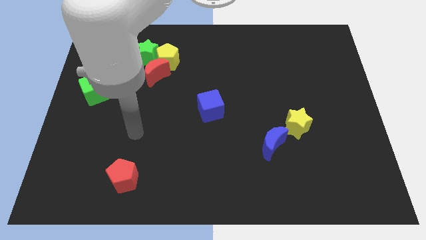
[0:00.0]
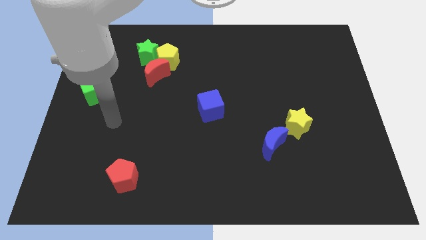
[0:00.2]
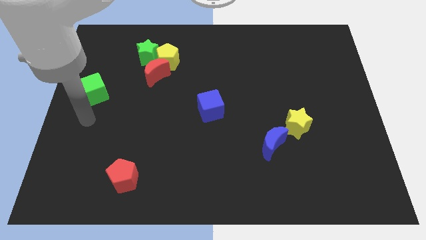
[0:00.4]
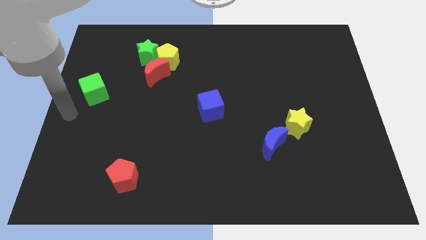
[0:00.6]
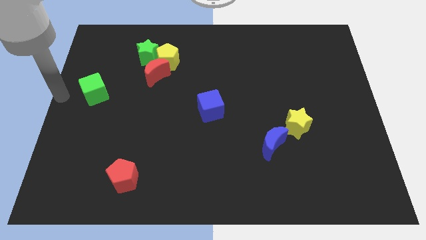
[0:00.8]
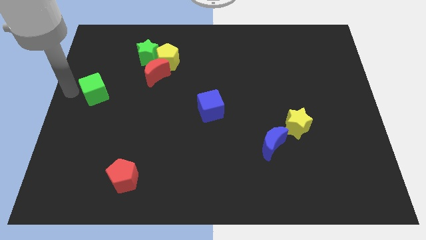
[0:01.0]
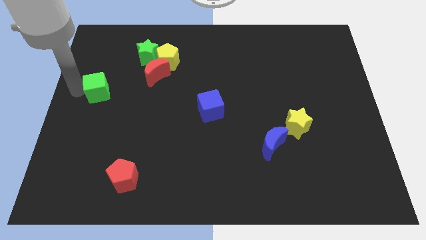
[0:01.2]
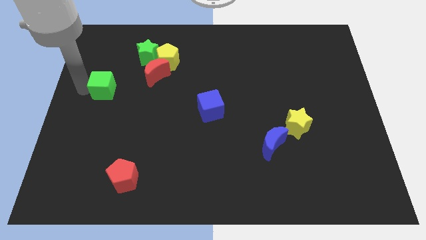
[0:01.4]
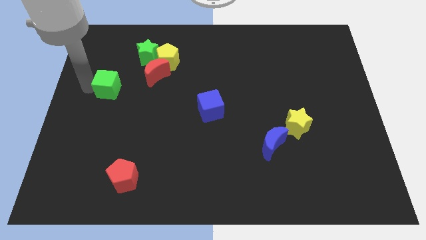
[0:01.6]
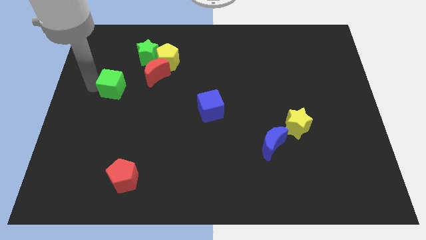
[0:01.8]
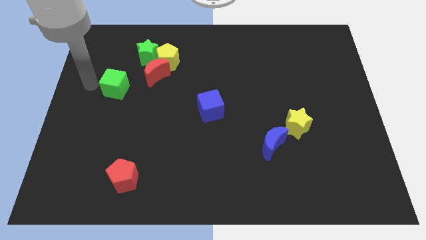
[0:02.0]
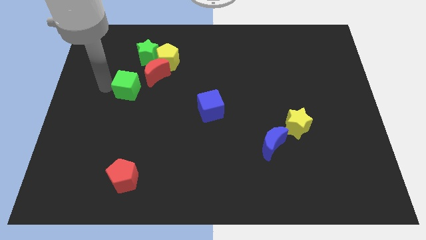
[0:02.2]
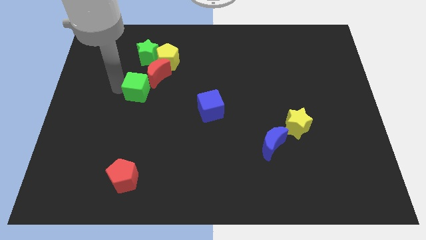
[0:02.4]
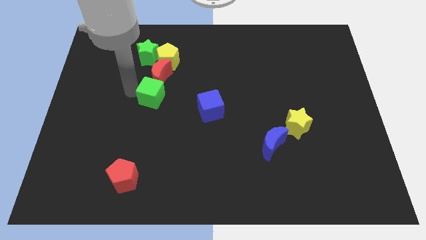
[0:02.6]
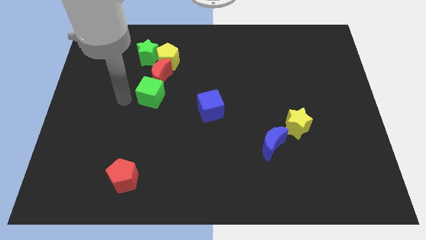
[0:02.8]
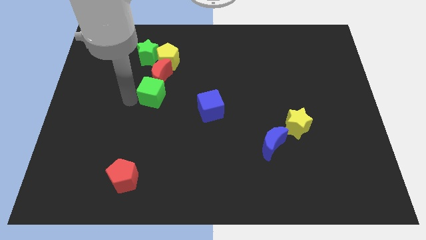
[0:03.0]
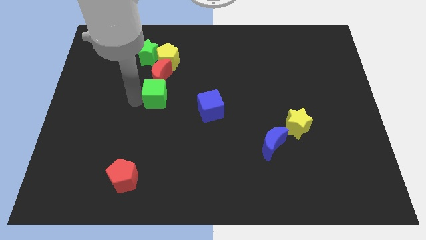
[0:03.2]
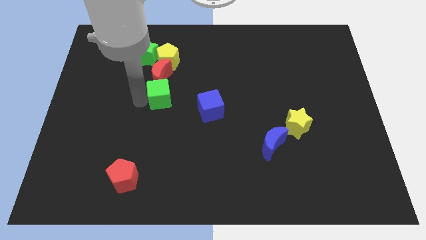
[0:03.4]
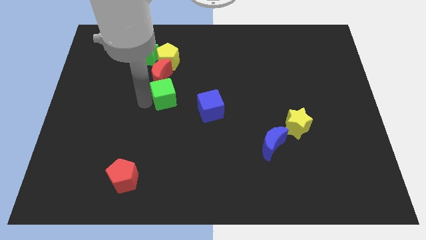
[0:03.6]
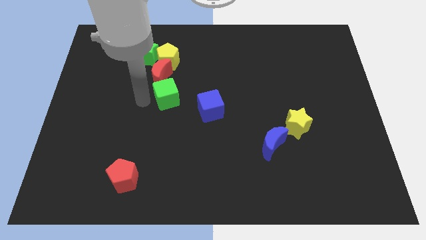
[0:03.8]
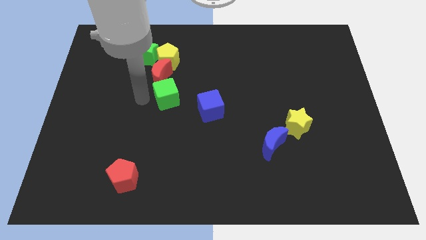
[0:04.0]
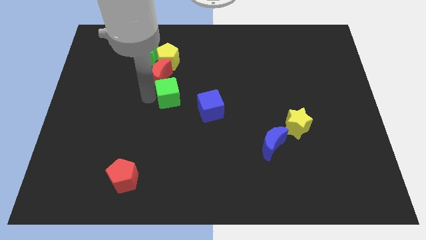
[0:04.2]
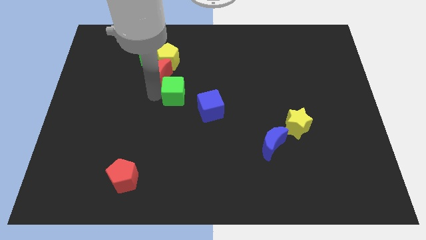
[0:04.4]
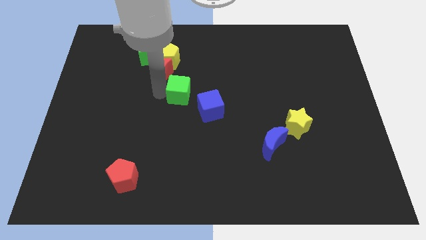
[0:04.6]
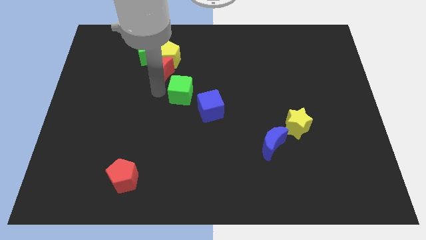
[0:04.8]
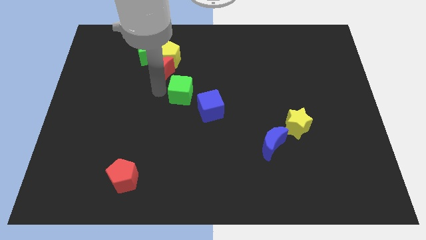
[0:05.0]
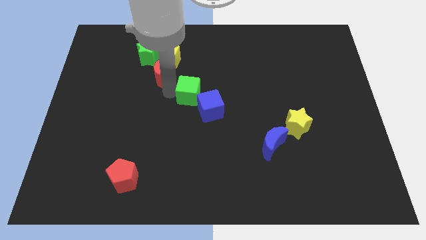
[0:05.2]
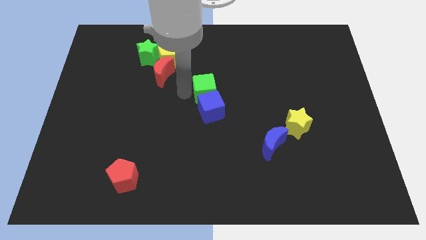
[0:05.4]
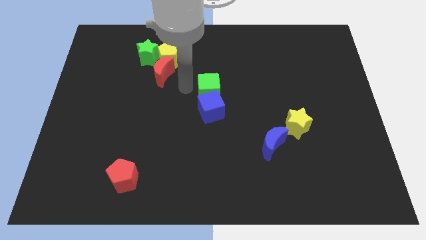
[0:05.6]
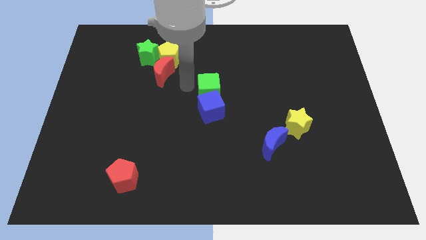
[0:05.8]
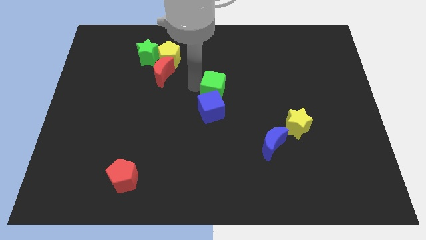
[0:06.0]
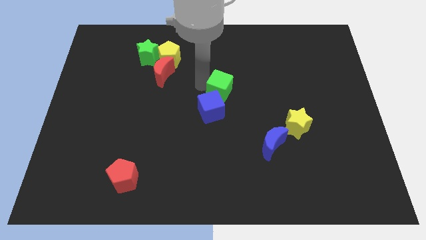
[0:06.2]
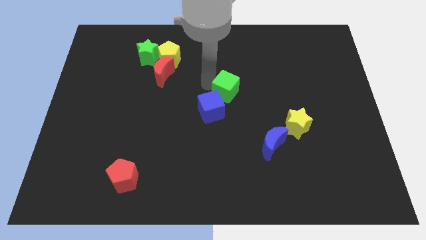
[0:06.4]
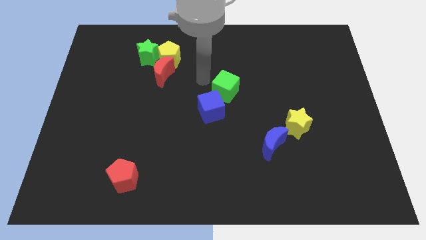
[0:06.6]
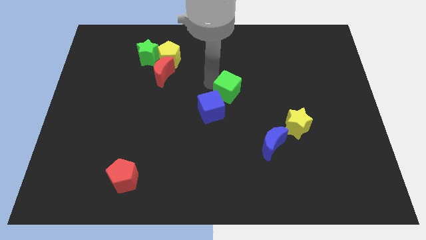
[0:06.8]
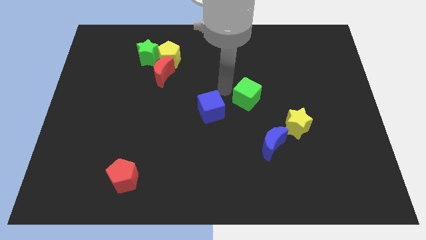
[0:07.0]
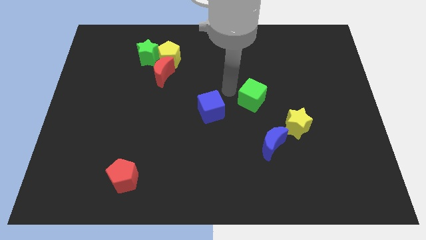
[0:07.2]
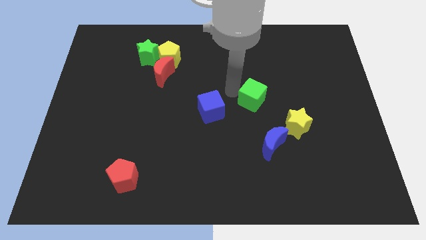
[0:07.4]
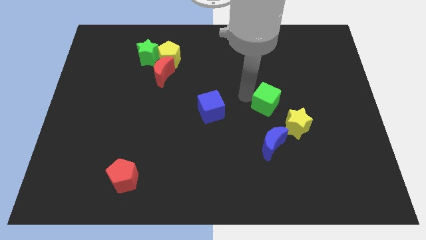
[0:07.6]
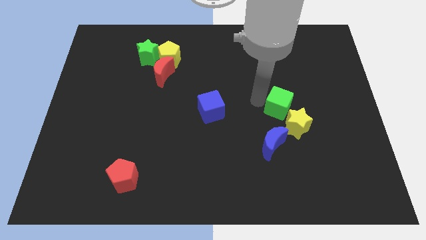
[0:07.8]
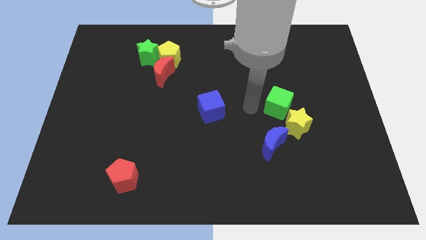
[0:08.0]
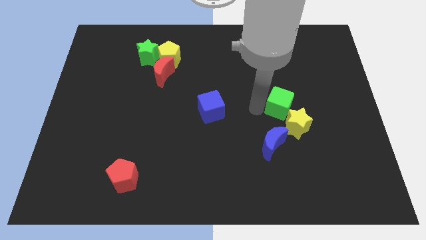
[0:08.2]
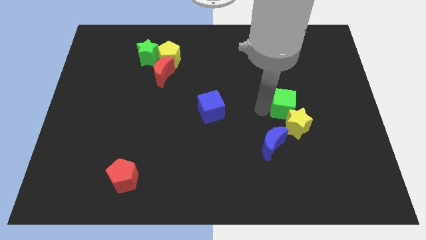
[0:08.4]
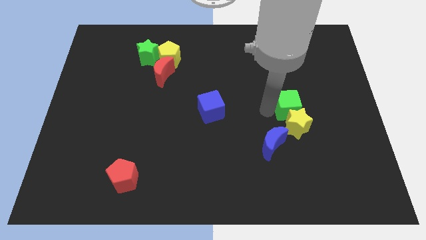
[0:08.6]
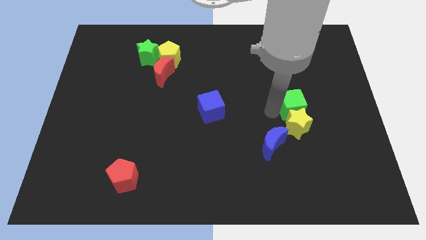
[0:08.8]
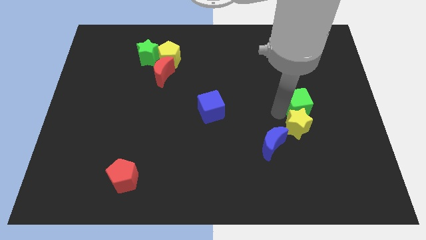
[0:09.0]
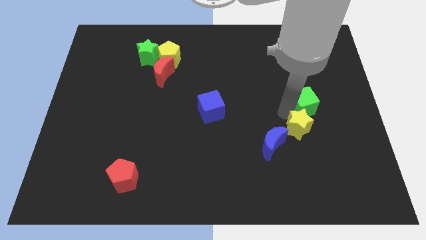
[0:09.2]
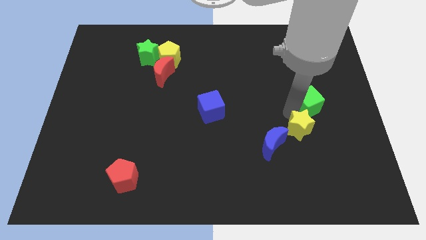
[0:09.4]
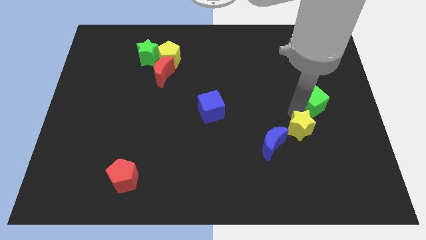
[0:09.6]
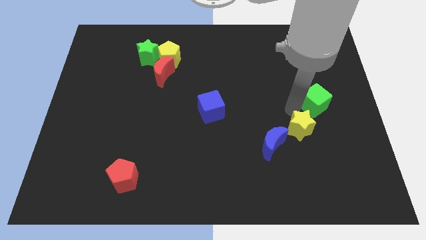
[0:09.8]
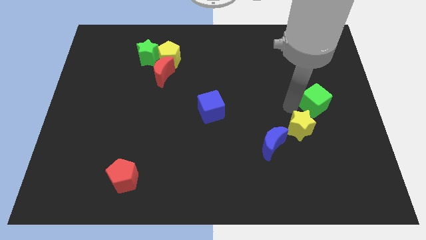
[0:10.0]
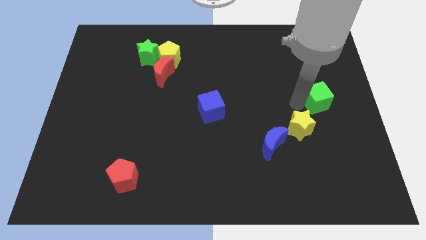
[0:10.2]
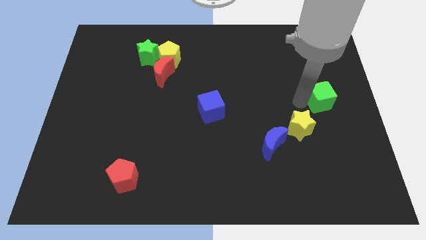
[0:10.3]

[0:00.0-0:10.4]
move the green cube to the right side

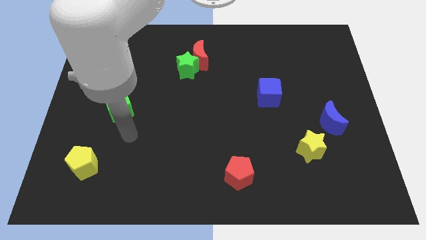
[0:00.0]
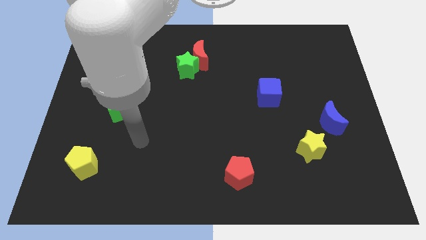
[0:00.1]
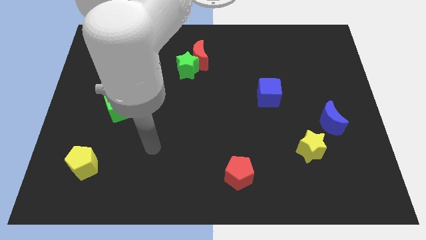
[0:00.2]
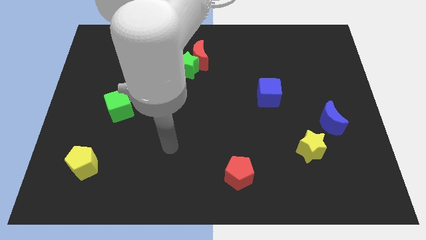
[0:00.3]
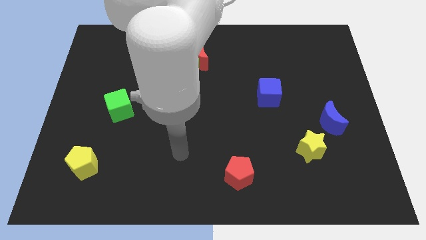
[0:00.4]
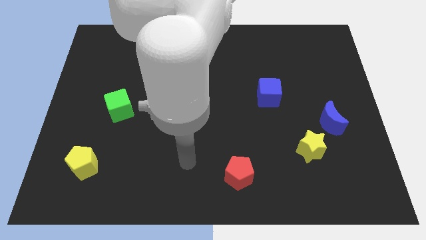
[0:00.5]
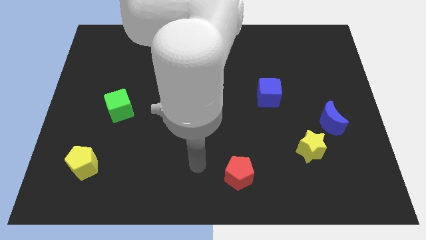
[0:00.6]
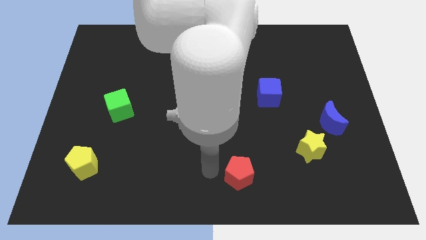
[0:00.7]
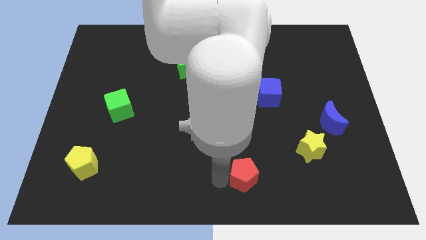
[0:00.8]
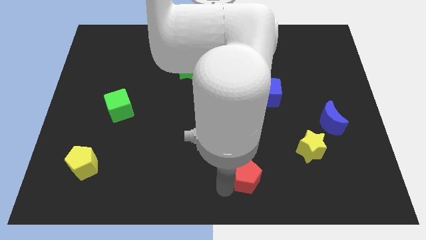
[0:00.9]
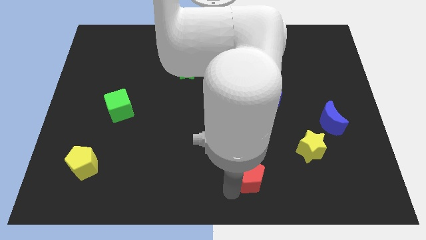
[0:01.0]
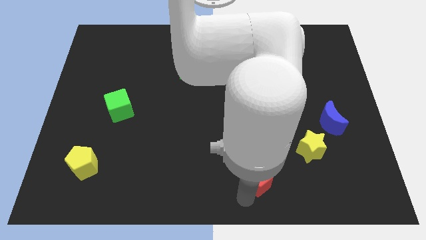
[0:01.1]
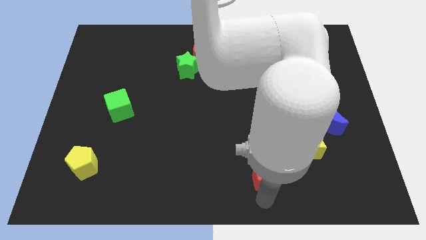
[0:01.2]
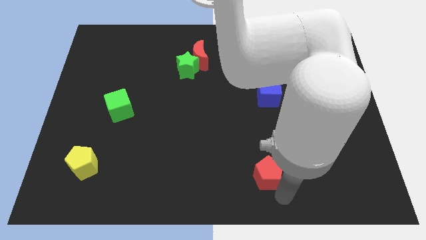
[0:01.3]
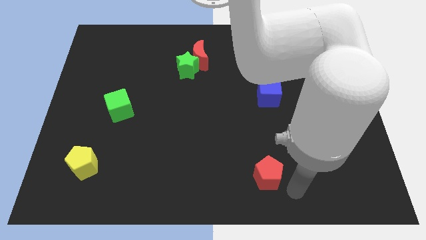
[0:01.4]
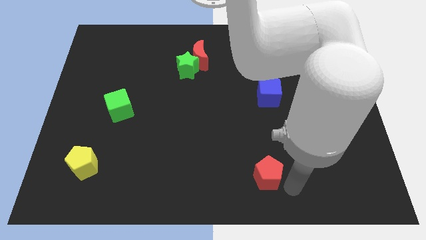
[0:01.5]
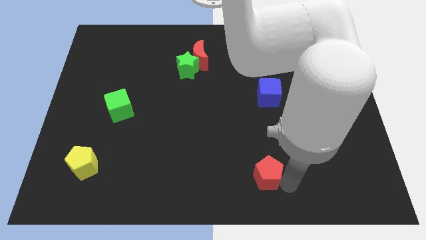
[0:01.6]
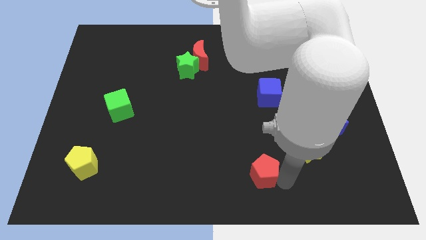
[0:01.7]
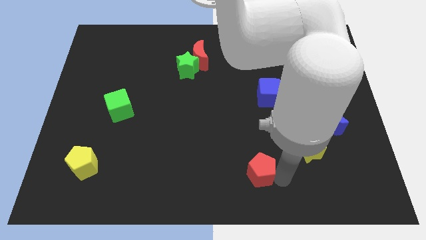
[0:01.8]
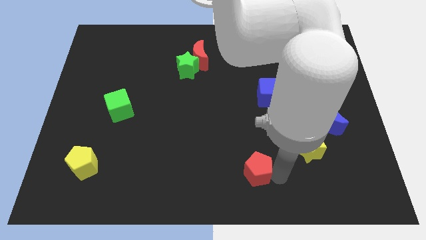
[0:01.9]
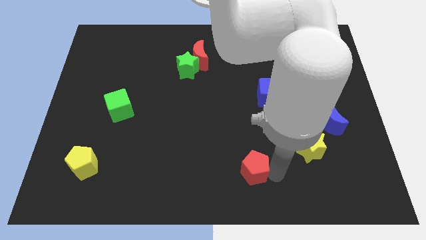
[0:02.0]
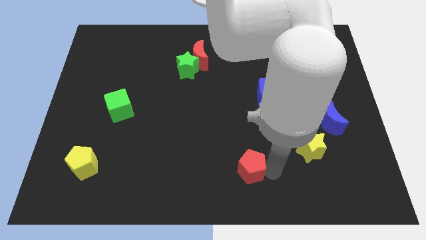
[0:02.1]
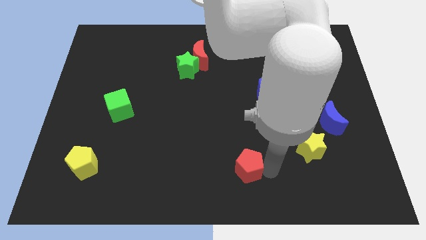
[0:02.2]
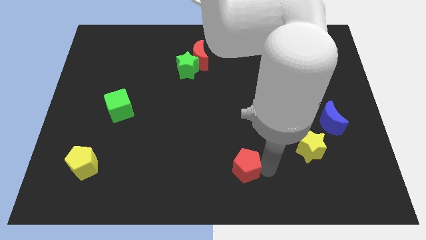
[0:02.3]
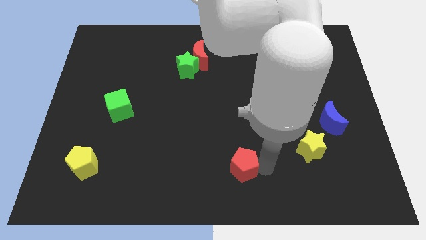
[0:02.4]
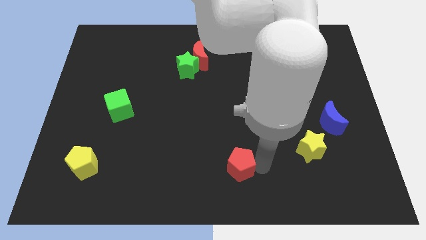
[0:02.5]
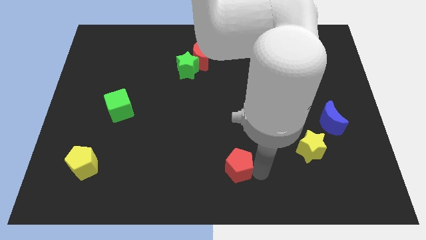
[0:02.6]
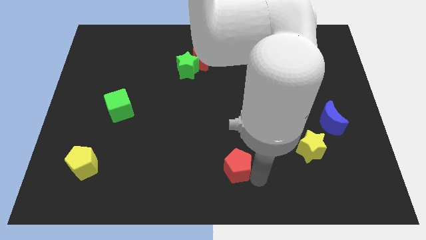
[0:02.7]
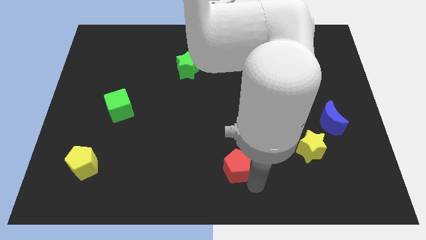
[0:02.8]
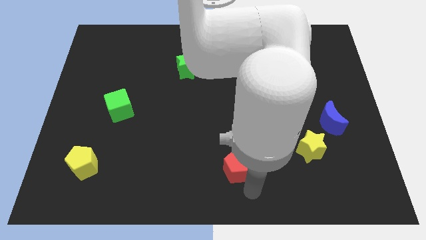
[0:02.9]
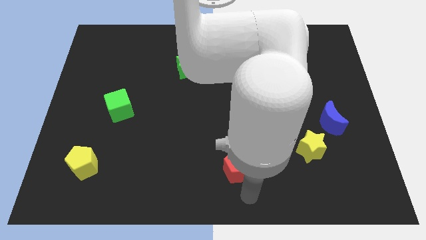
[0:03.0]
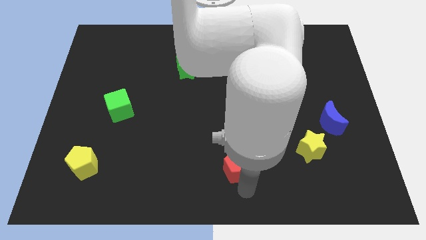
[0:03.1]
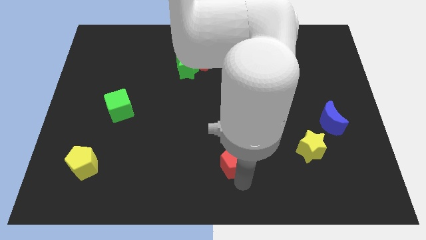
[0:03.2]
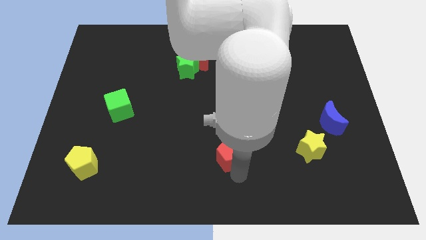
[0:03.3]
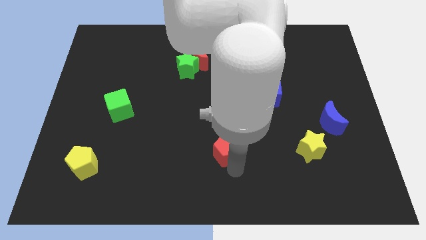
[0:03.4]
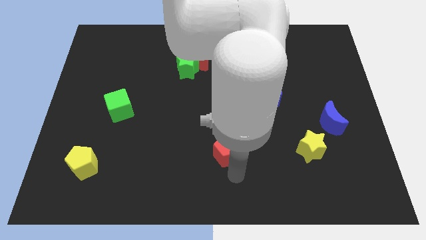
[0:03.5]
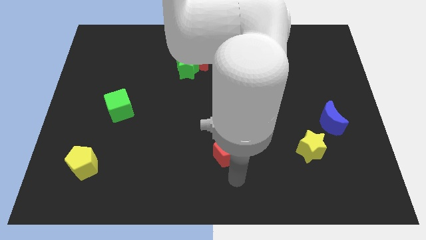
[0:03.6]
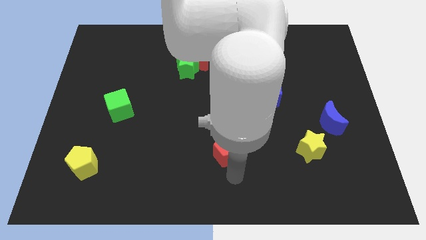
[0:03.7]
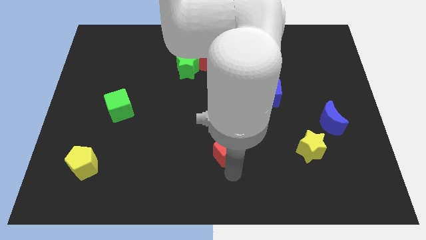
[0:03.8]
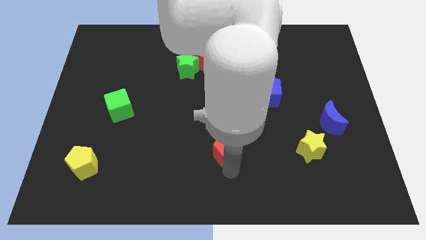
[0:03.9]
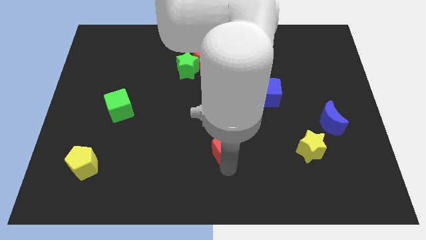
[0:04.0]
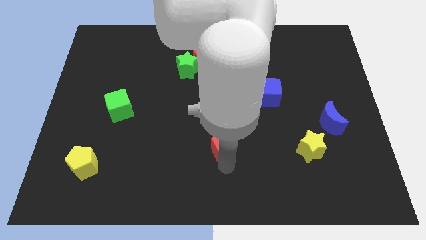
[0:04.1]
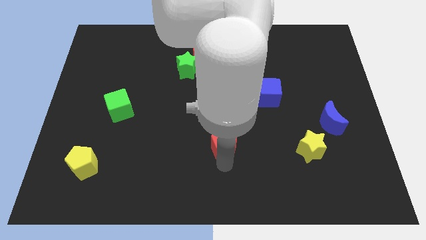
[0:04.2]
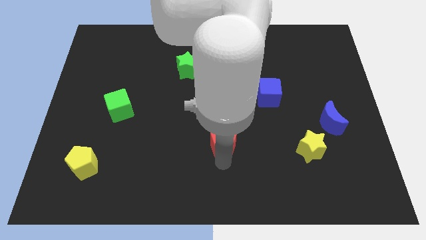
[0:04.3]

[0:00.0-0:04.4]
put the red pentagon to the center of the board
